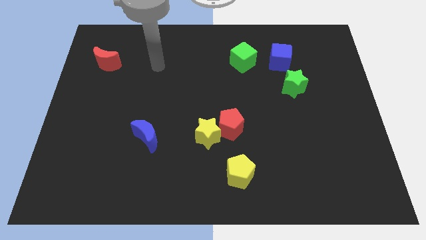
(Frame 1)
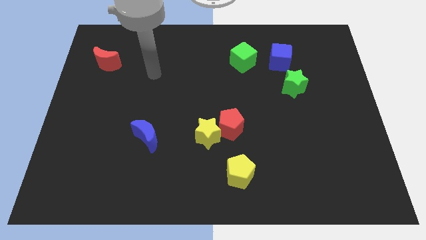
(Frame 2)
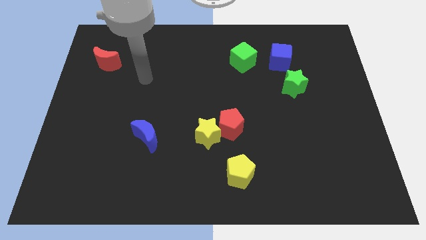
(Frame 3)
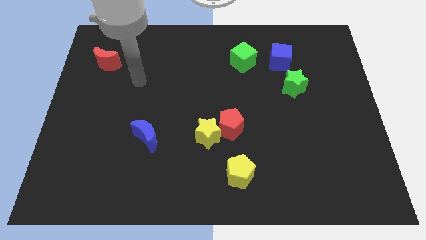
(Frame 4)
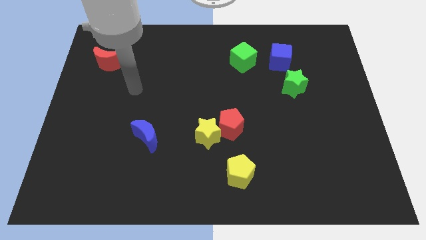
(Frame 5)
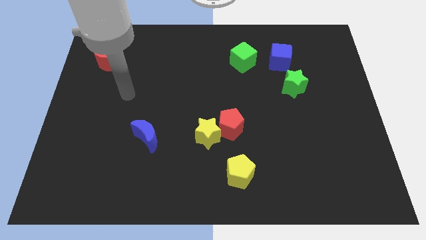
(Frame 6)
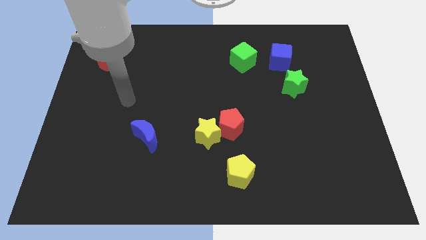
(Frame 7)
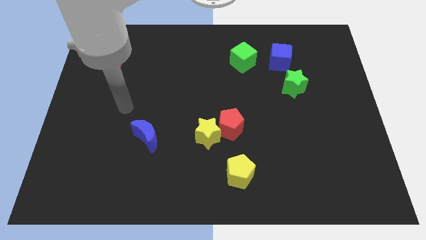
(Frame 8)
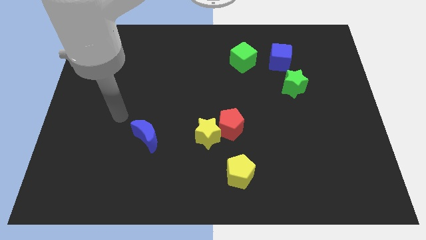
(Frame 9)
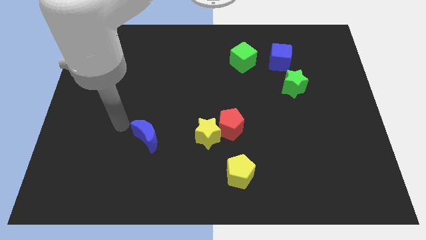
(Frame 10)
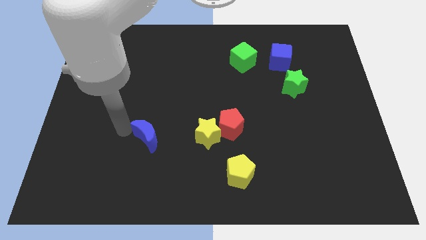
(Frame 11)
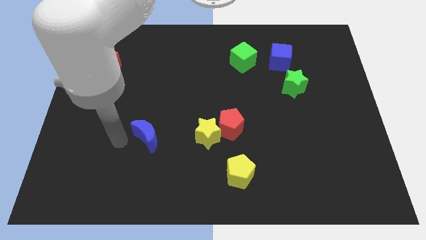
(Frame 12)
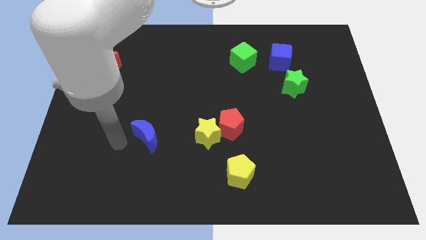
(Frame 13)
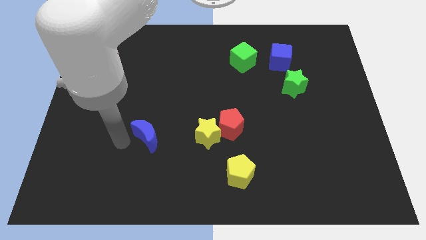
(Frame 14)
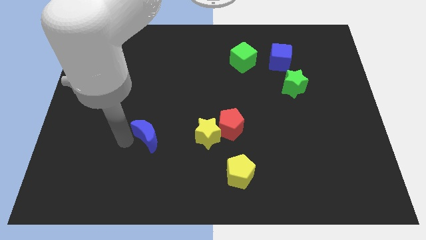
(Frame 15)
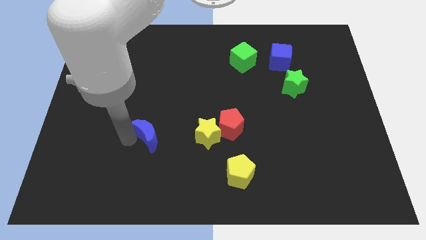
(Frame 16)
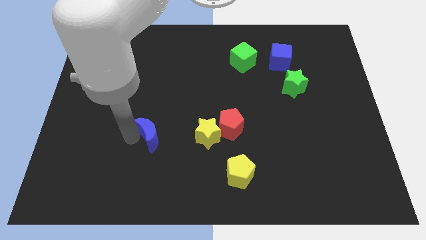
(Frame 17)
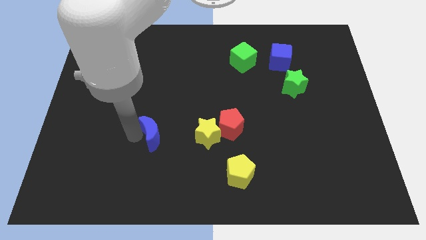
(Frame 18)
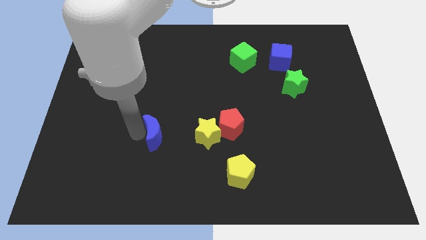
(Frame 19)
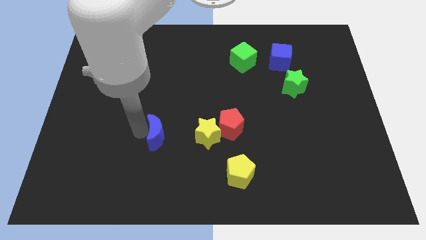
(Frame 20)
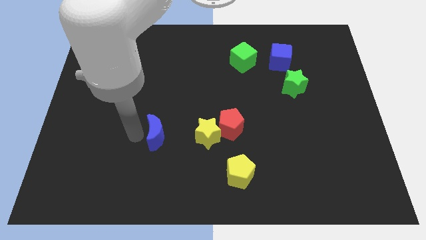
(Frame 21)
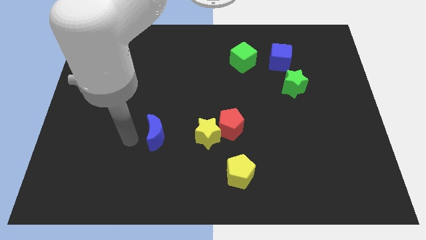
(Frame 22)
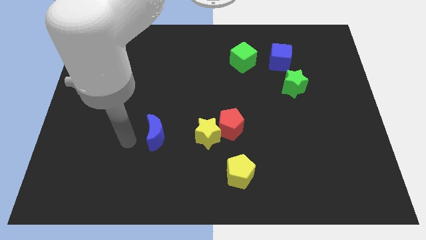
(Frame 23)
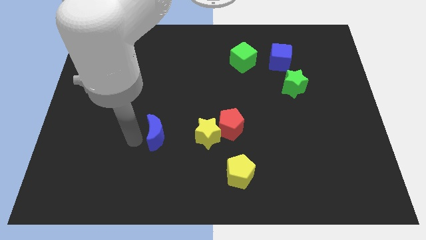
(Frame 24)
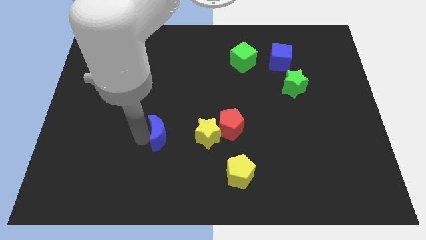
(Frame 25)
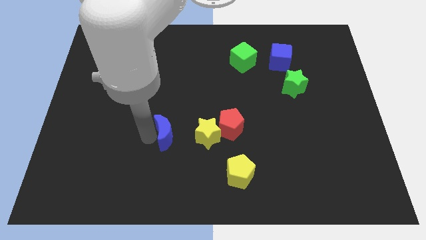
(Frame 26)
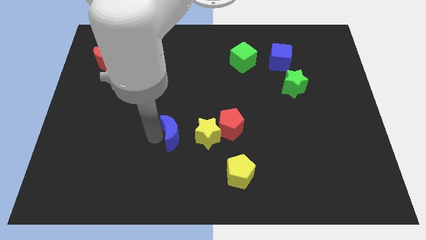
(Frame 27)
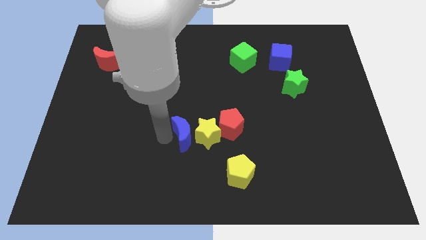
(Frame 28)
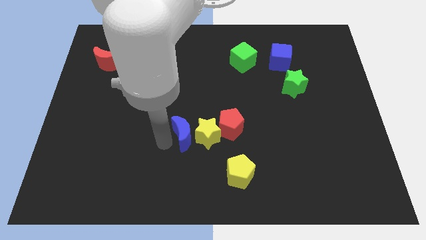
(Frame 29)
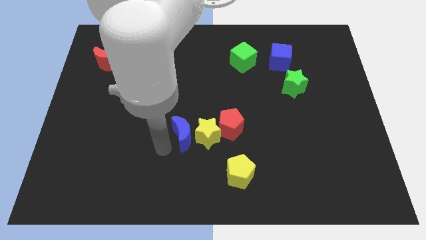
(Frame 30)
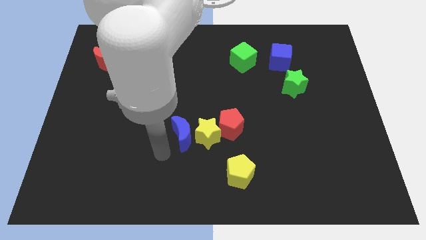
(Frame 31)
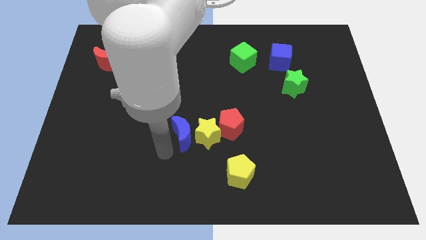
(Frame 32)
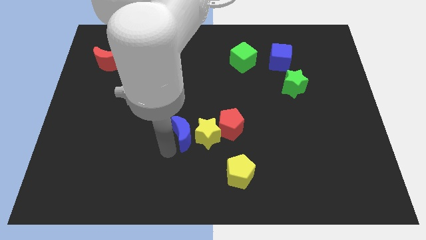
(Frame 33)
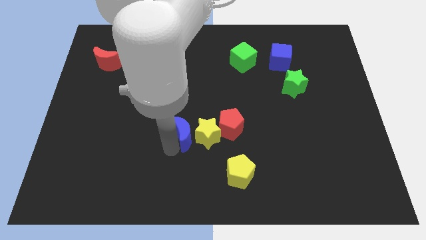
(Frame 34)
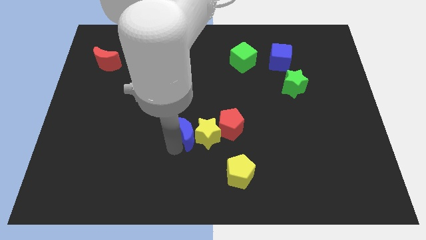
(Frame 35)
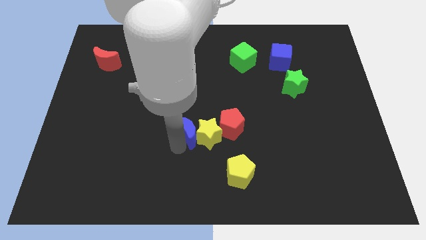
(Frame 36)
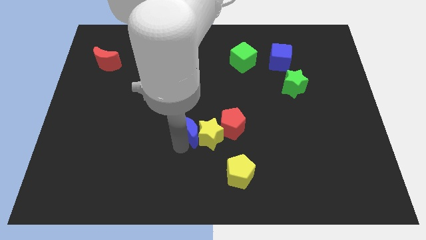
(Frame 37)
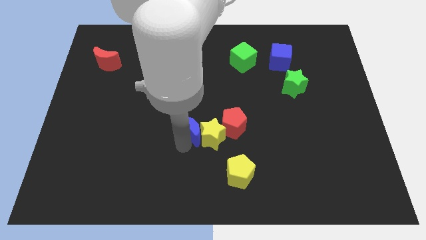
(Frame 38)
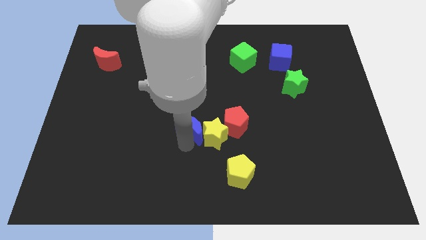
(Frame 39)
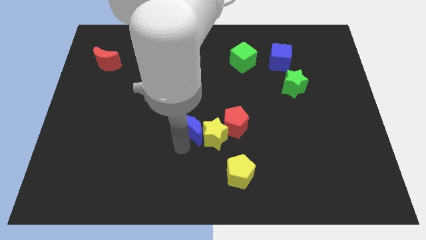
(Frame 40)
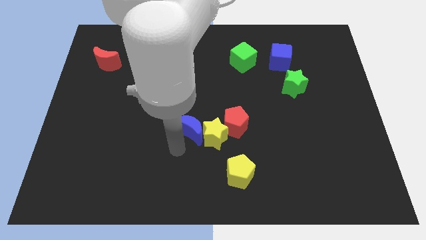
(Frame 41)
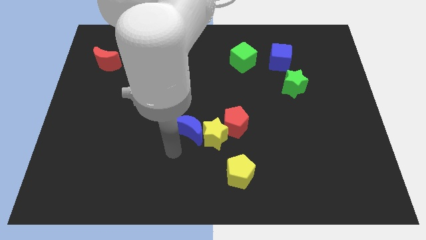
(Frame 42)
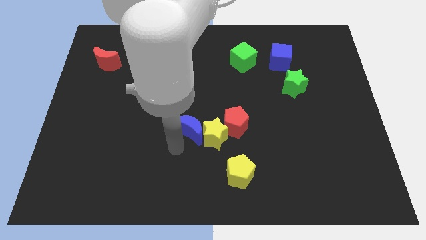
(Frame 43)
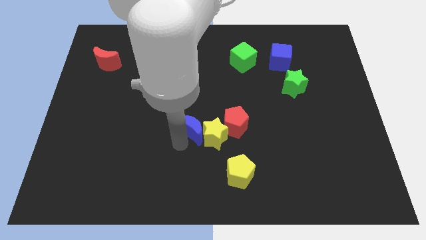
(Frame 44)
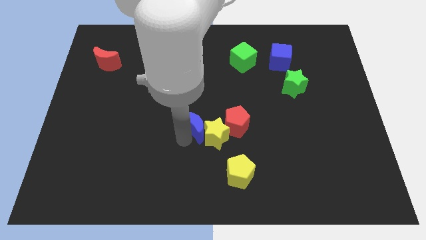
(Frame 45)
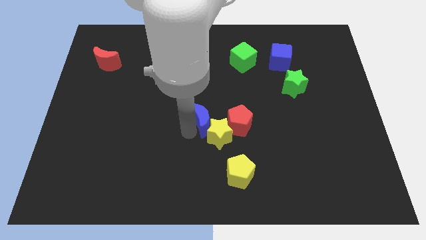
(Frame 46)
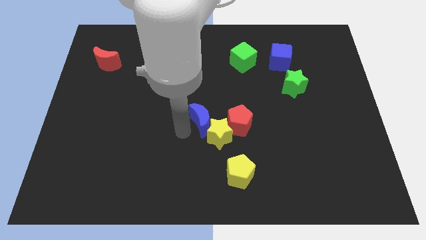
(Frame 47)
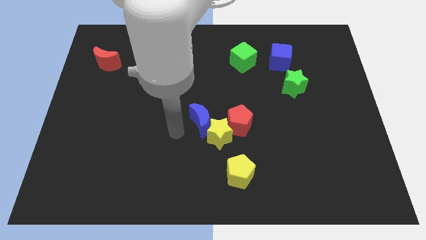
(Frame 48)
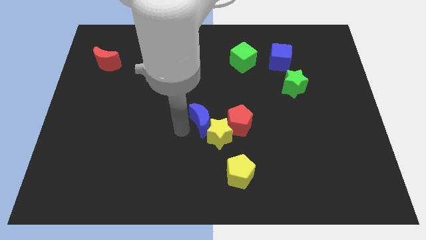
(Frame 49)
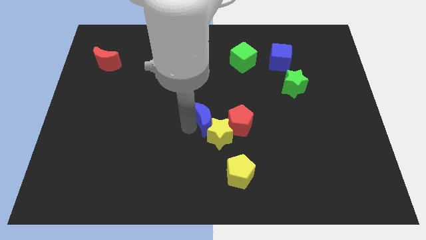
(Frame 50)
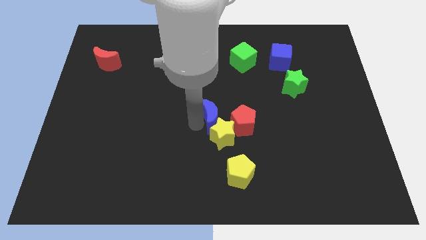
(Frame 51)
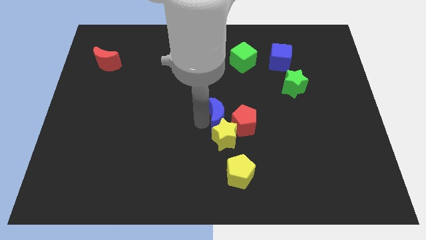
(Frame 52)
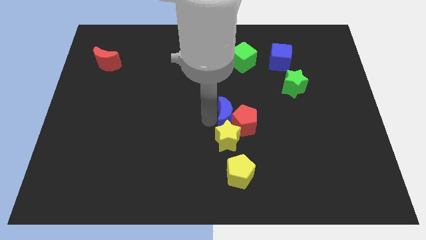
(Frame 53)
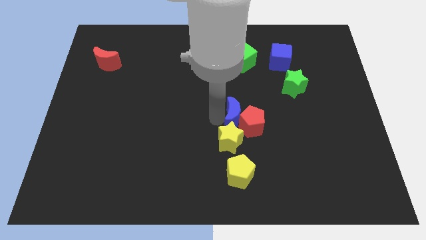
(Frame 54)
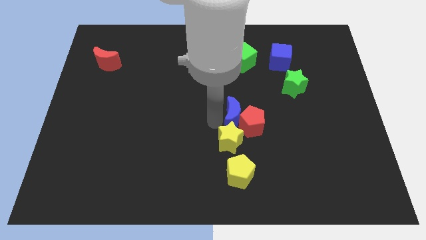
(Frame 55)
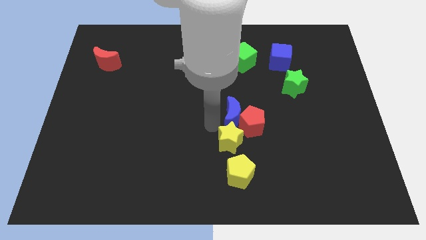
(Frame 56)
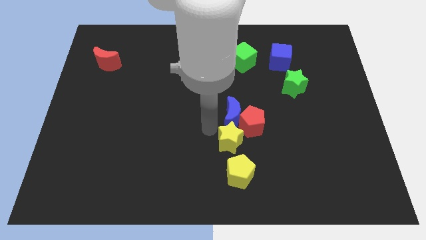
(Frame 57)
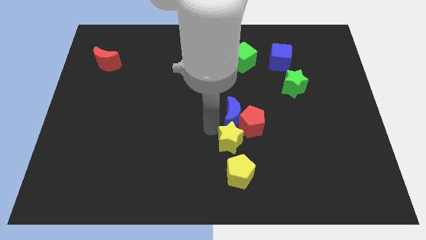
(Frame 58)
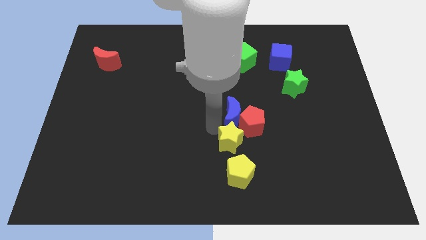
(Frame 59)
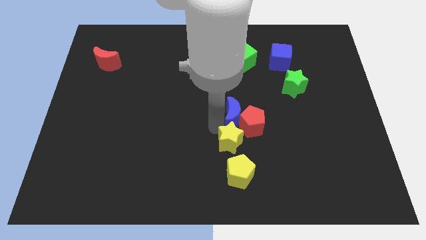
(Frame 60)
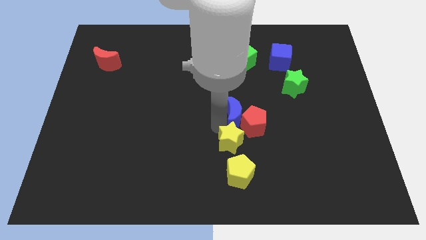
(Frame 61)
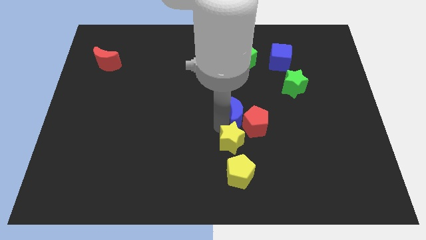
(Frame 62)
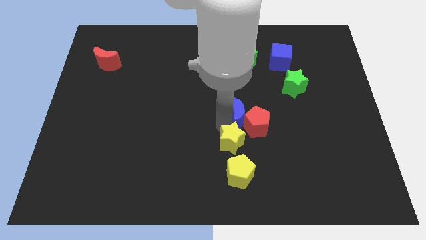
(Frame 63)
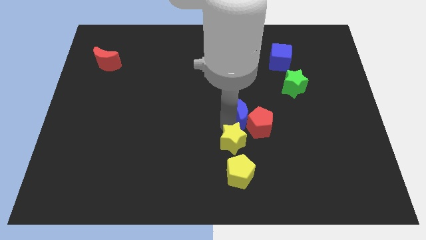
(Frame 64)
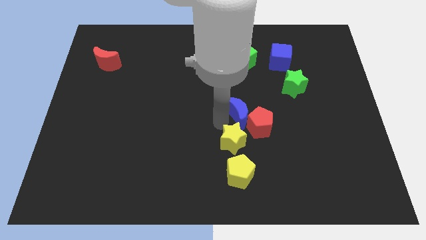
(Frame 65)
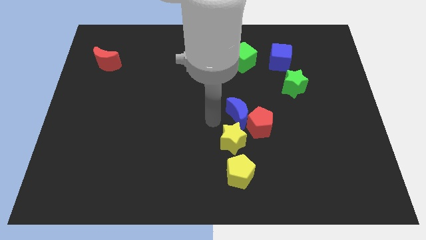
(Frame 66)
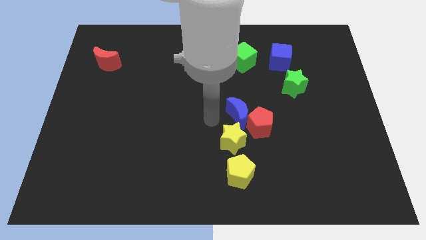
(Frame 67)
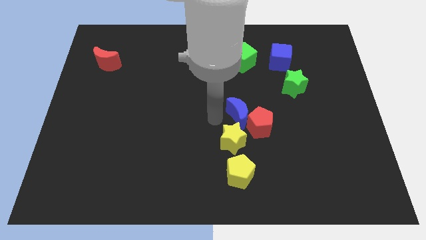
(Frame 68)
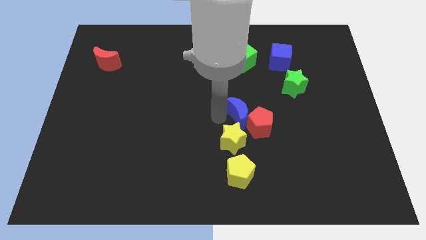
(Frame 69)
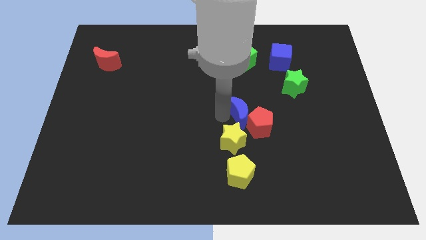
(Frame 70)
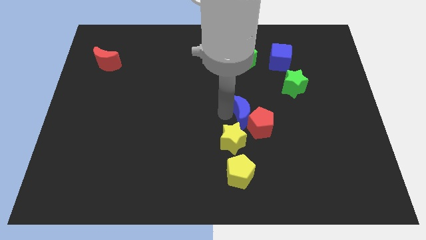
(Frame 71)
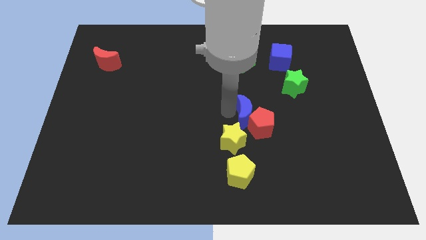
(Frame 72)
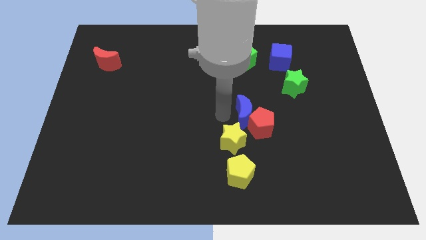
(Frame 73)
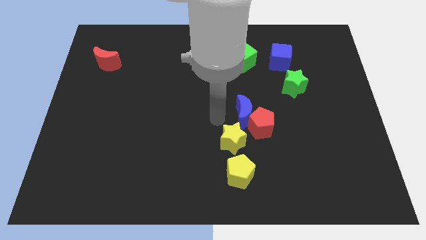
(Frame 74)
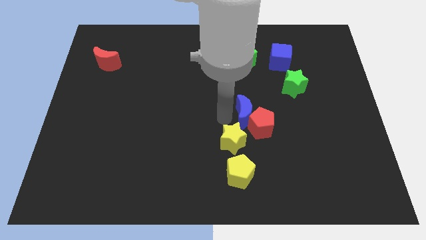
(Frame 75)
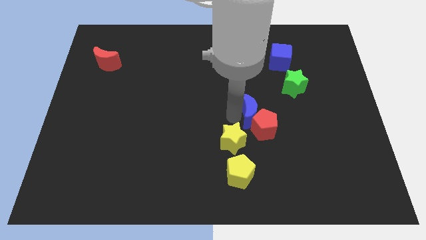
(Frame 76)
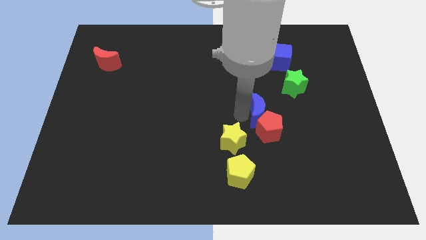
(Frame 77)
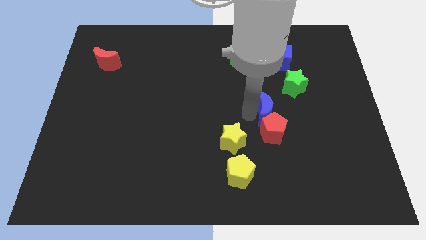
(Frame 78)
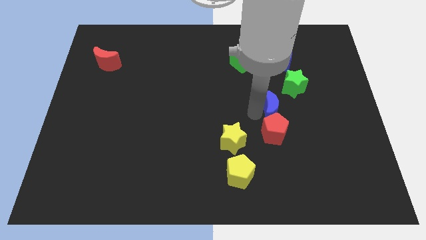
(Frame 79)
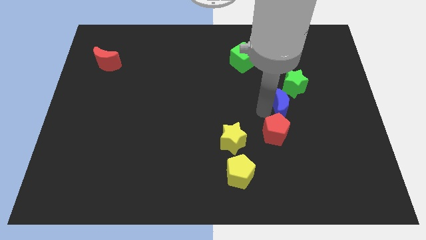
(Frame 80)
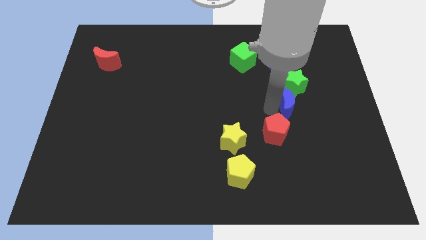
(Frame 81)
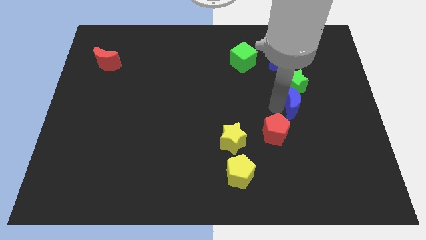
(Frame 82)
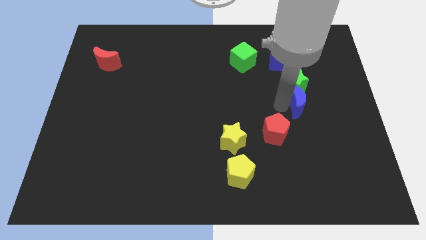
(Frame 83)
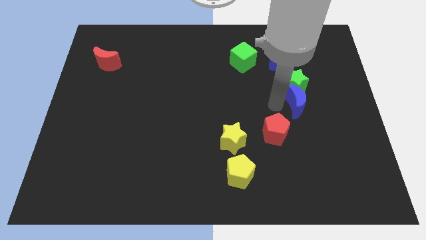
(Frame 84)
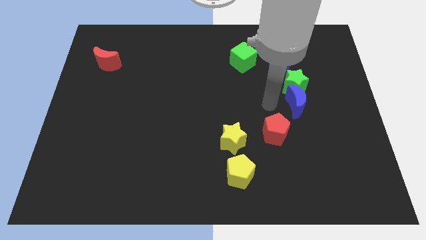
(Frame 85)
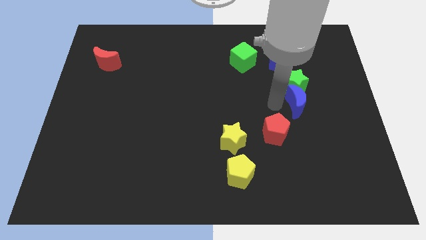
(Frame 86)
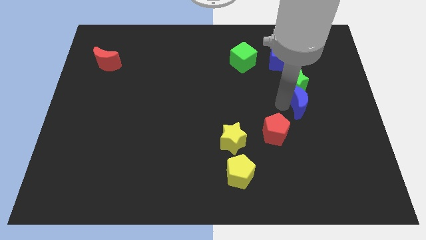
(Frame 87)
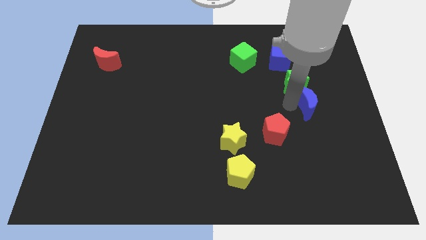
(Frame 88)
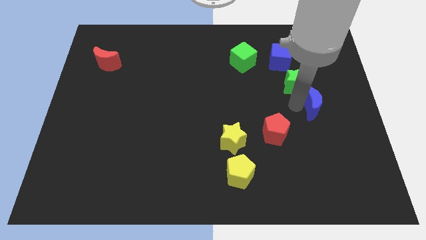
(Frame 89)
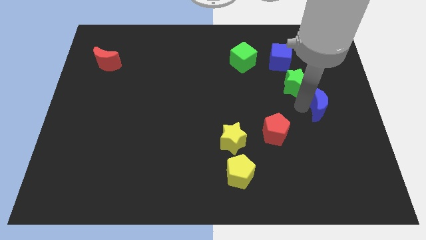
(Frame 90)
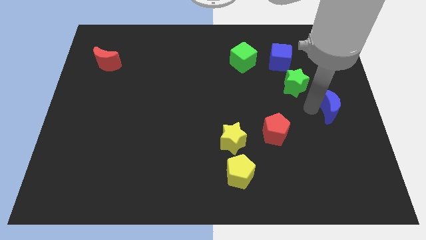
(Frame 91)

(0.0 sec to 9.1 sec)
slide the blue moon to the center right
